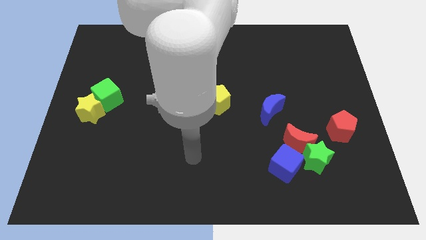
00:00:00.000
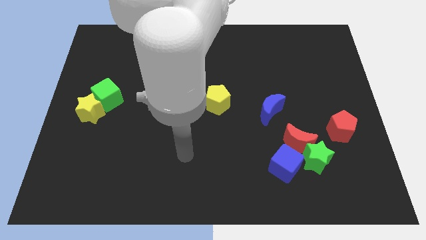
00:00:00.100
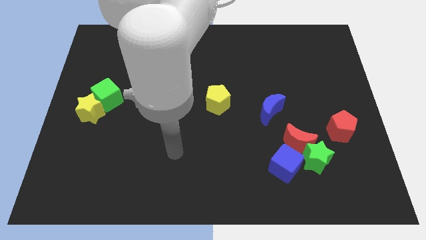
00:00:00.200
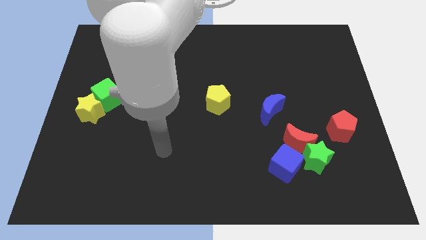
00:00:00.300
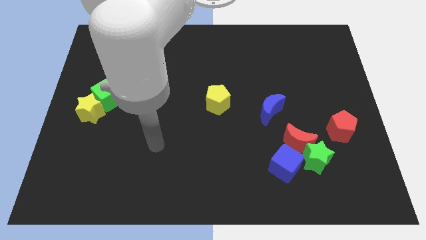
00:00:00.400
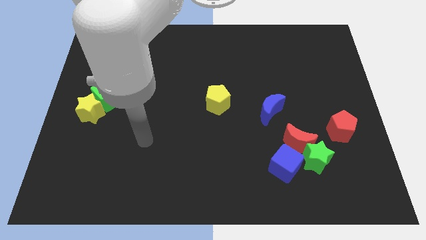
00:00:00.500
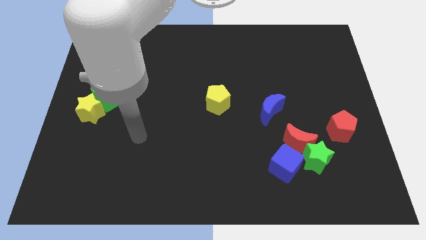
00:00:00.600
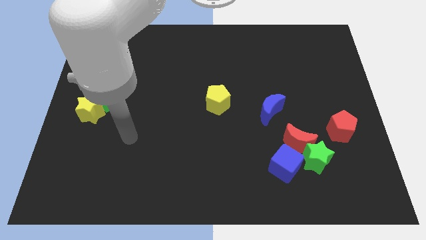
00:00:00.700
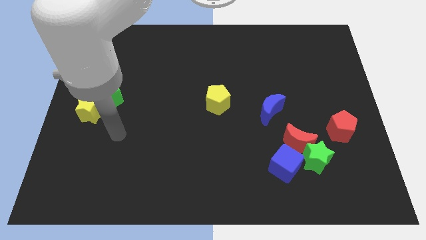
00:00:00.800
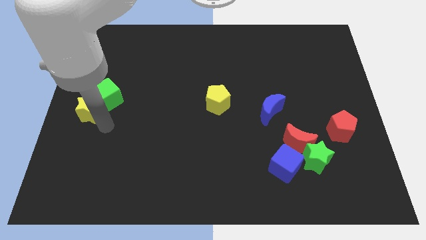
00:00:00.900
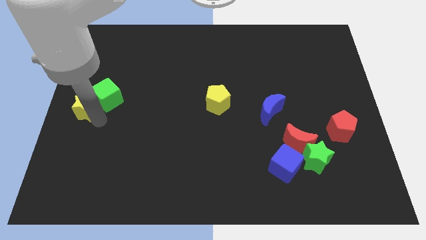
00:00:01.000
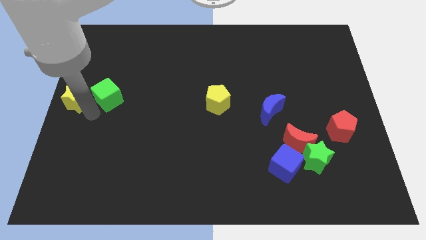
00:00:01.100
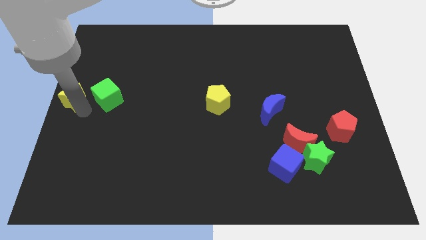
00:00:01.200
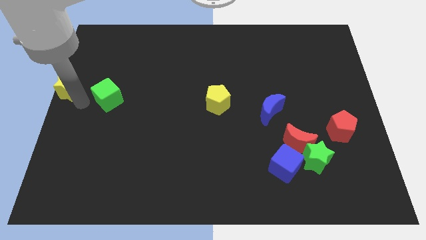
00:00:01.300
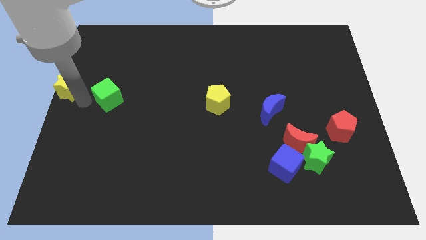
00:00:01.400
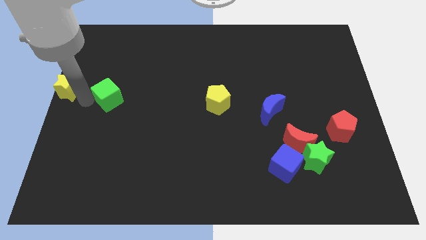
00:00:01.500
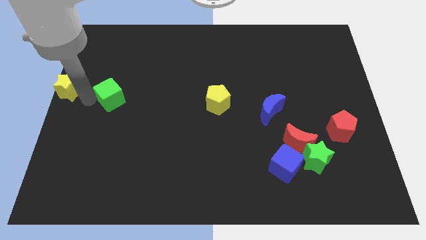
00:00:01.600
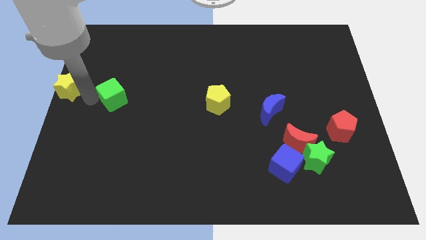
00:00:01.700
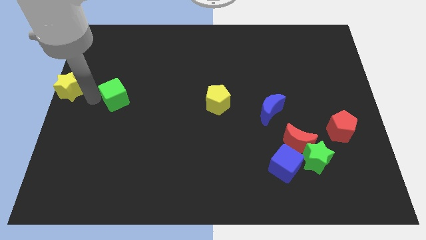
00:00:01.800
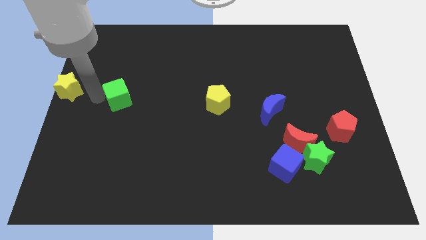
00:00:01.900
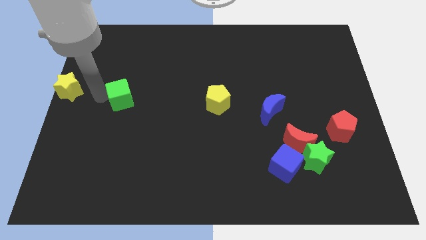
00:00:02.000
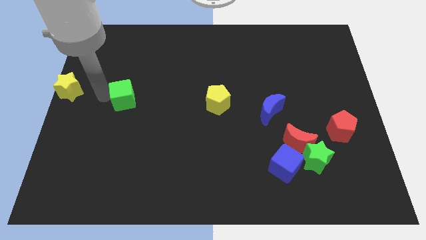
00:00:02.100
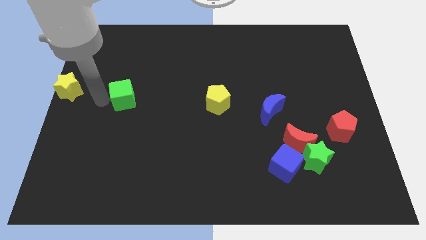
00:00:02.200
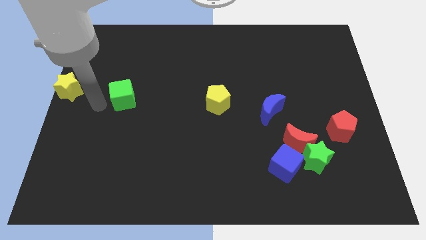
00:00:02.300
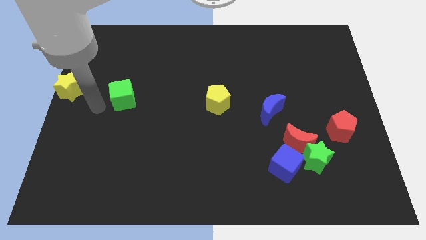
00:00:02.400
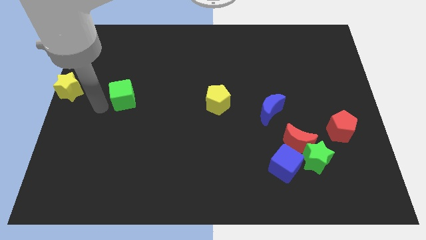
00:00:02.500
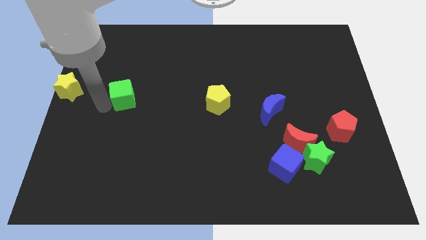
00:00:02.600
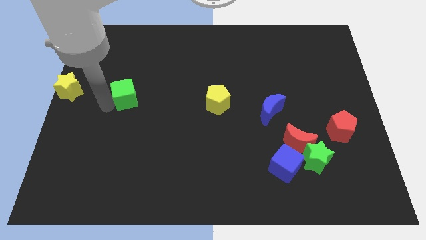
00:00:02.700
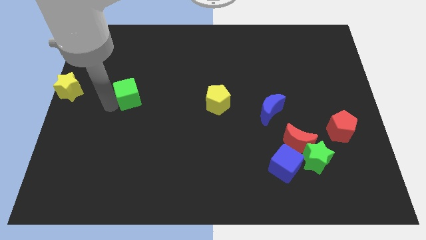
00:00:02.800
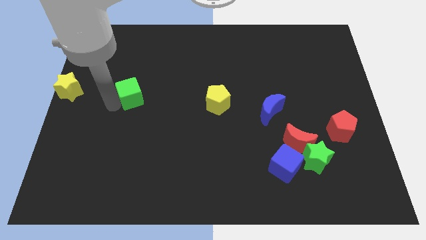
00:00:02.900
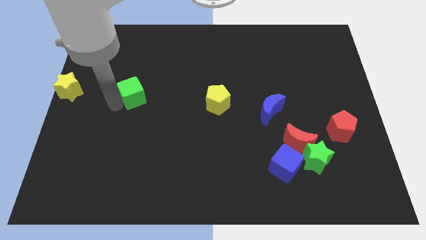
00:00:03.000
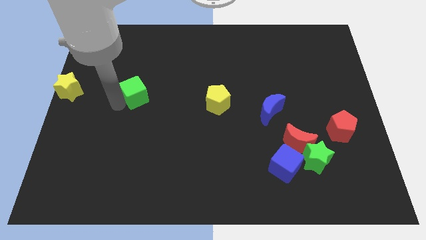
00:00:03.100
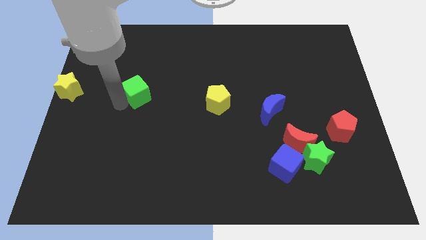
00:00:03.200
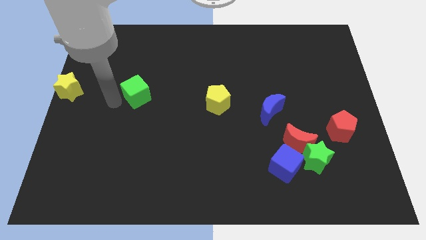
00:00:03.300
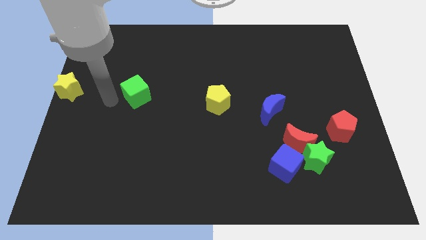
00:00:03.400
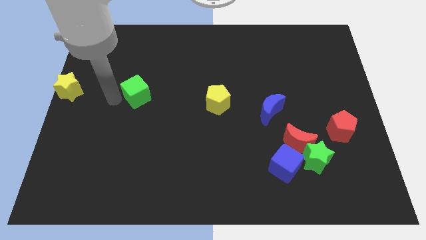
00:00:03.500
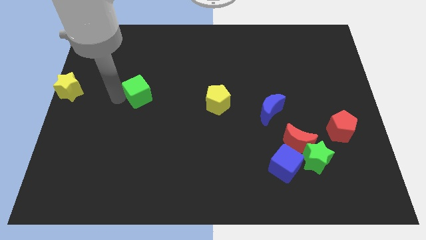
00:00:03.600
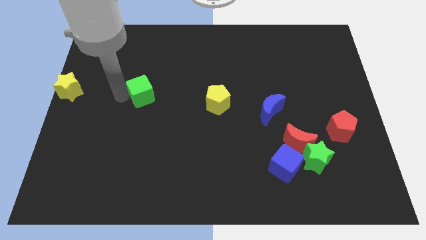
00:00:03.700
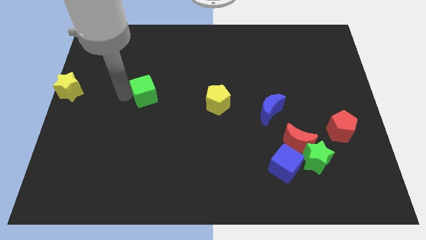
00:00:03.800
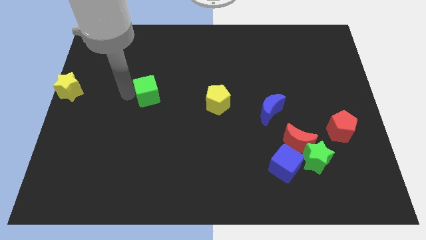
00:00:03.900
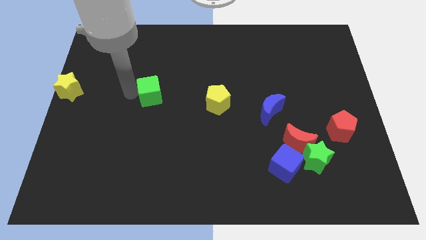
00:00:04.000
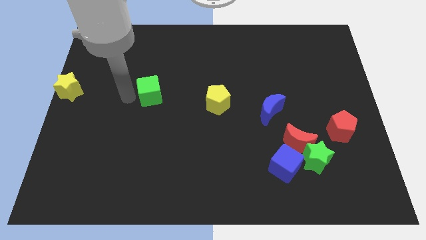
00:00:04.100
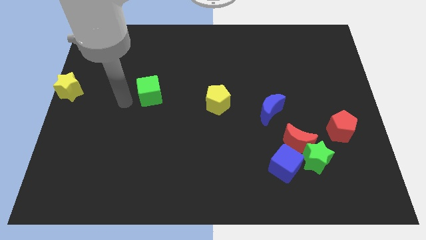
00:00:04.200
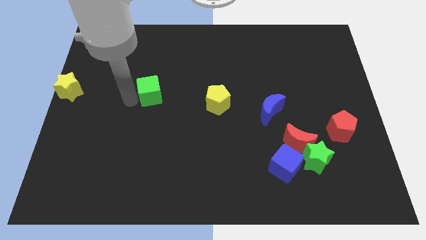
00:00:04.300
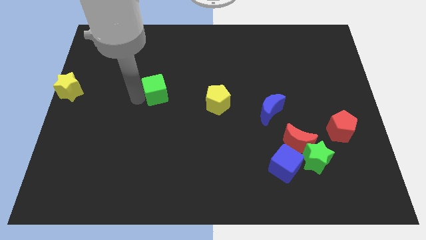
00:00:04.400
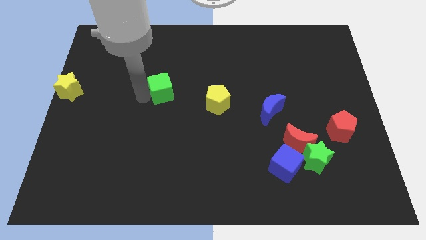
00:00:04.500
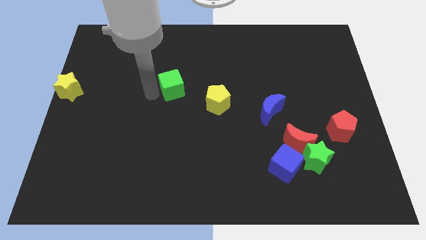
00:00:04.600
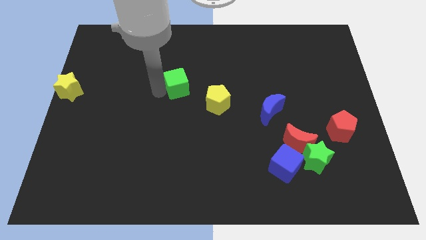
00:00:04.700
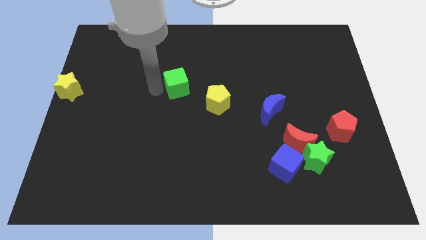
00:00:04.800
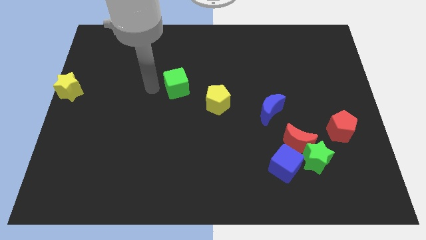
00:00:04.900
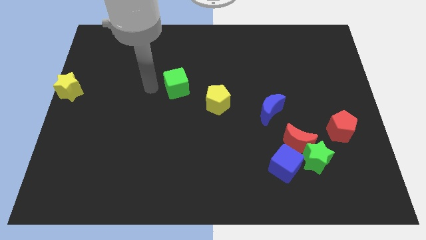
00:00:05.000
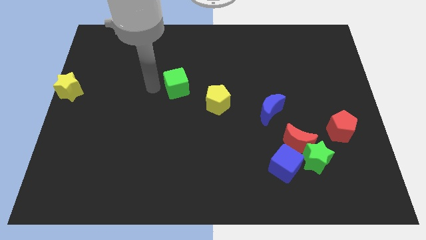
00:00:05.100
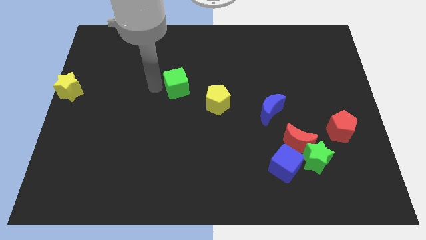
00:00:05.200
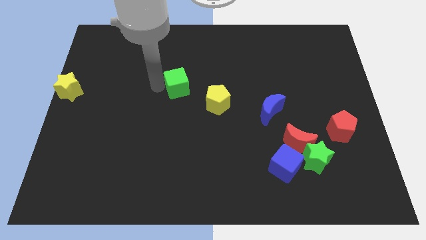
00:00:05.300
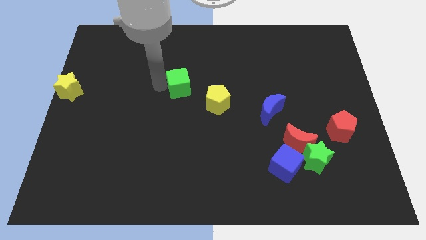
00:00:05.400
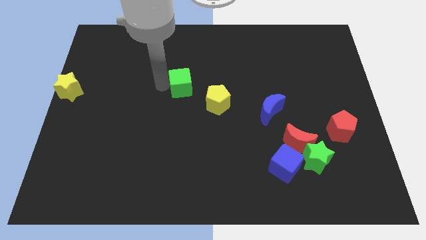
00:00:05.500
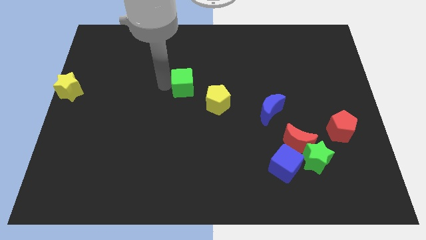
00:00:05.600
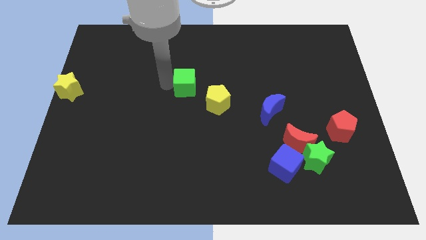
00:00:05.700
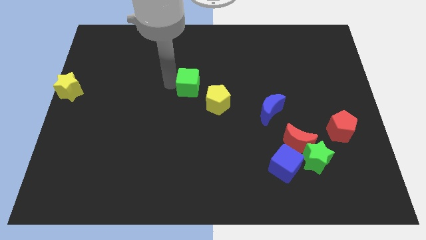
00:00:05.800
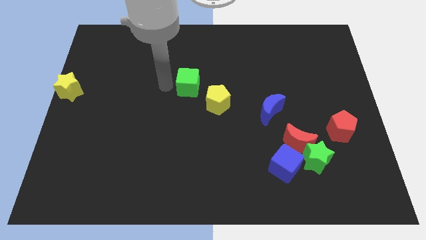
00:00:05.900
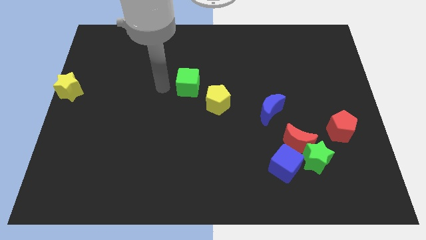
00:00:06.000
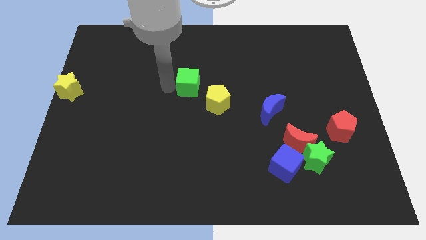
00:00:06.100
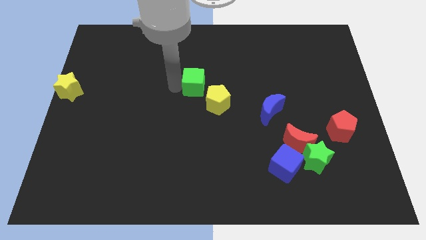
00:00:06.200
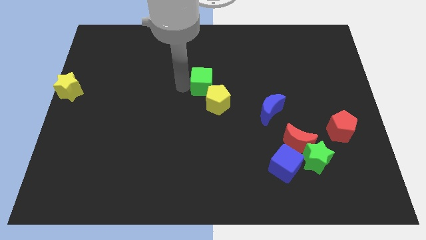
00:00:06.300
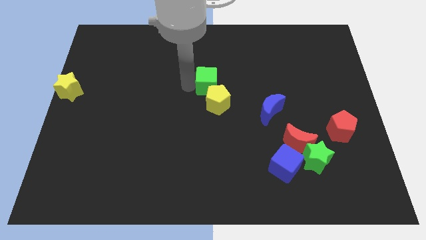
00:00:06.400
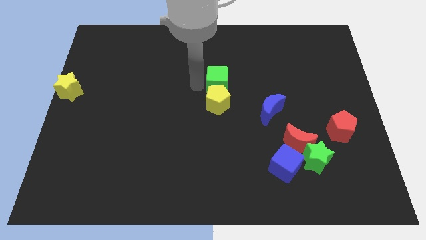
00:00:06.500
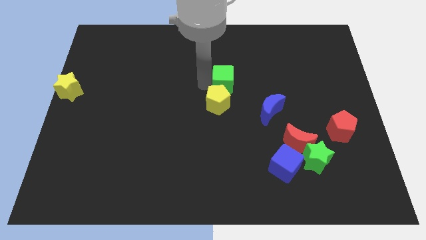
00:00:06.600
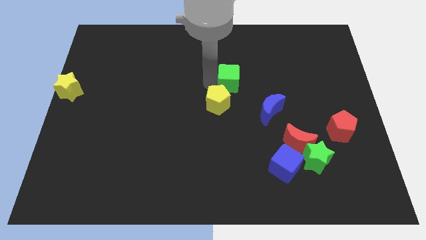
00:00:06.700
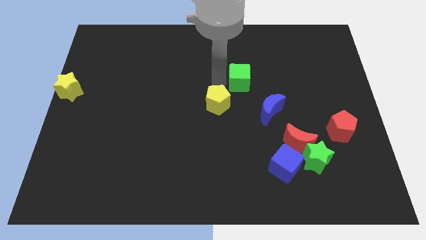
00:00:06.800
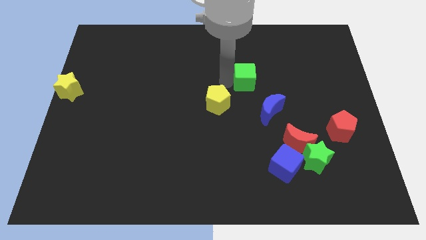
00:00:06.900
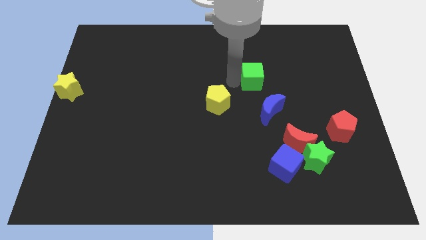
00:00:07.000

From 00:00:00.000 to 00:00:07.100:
move the green cube to the top of the blue moon

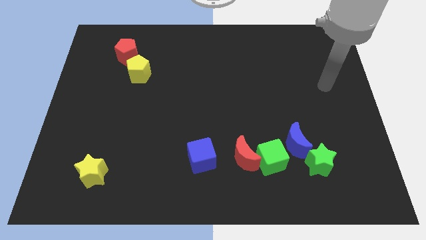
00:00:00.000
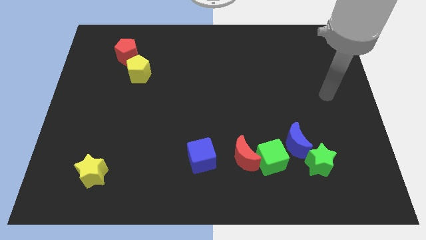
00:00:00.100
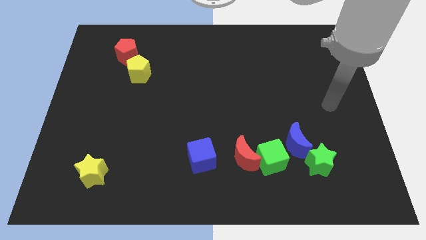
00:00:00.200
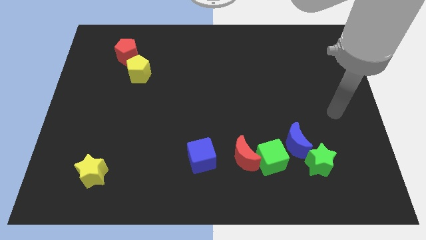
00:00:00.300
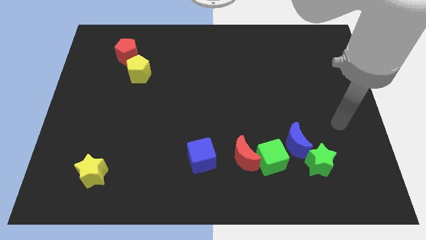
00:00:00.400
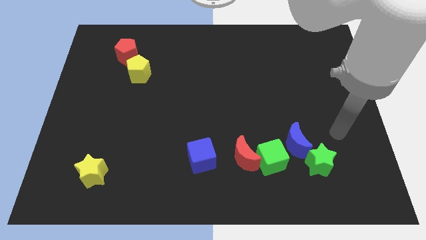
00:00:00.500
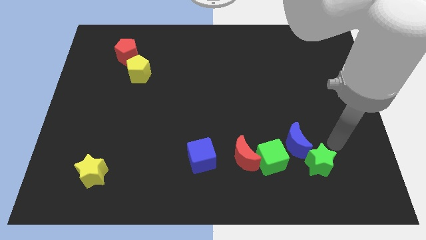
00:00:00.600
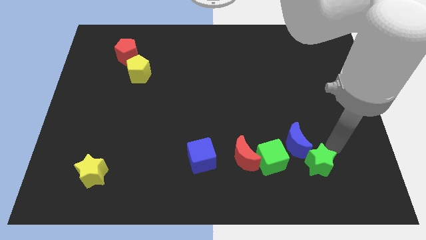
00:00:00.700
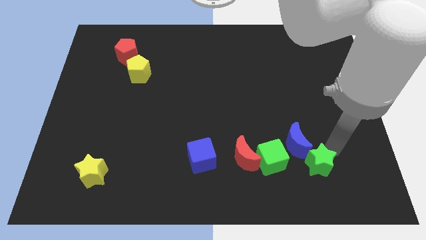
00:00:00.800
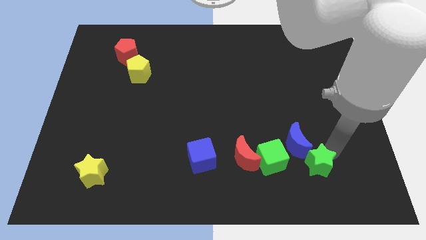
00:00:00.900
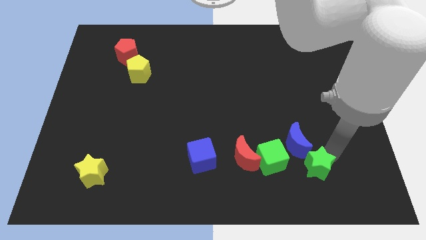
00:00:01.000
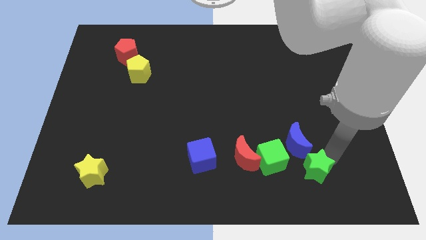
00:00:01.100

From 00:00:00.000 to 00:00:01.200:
push the green star to the bottom right of the green cube
